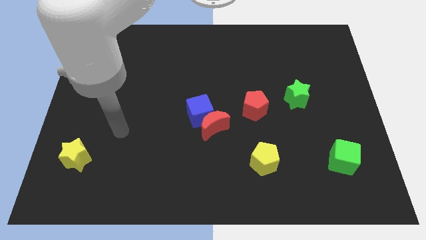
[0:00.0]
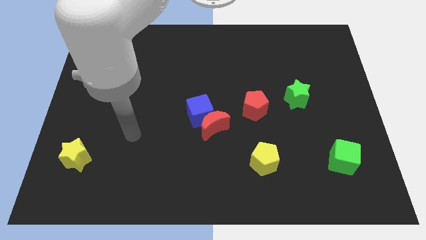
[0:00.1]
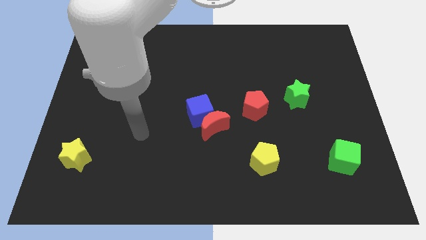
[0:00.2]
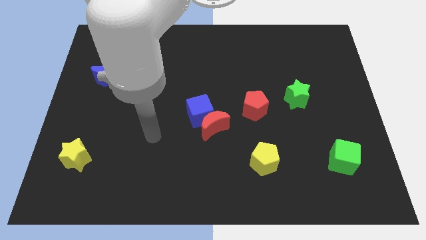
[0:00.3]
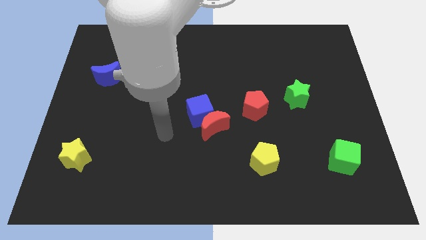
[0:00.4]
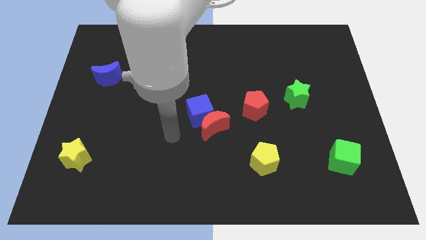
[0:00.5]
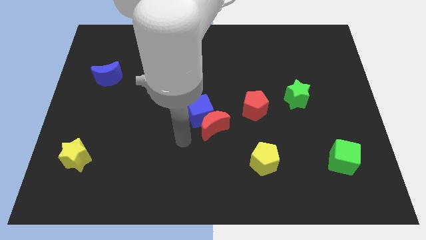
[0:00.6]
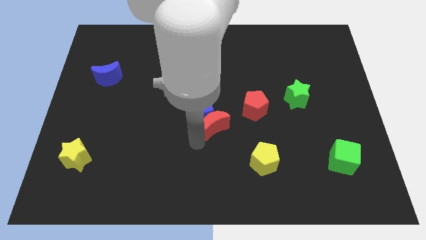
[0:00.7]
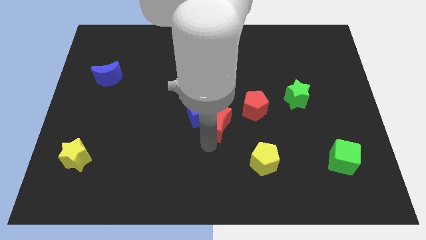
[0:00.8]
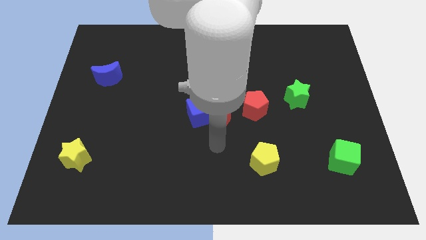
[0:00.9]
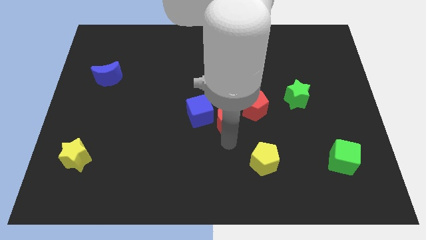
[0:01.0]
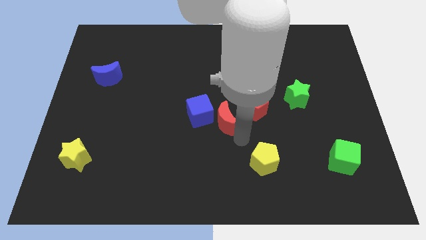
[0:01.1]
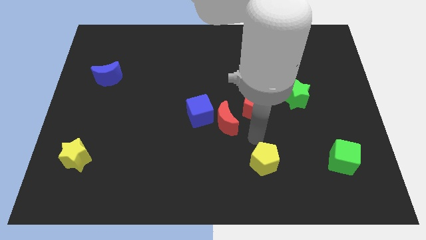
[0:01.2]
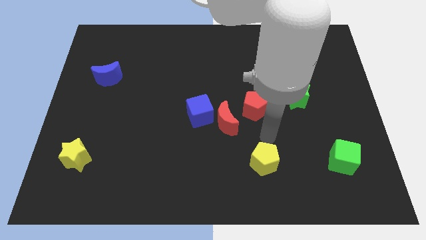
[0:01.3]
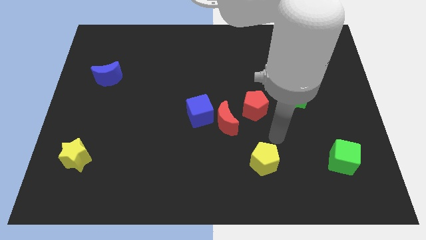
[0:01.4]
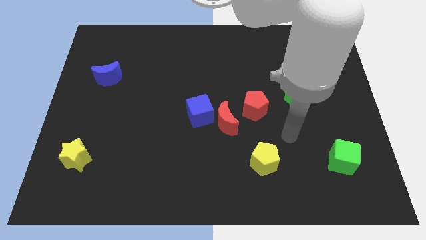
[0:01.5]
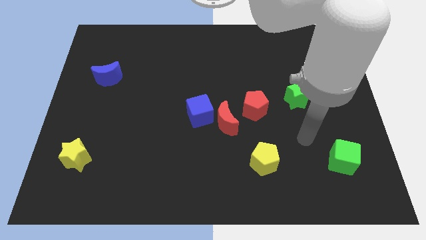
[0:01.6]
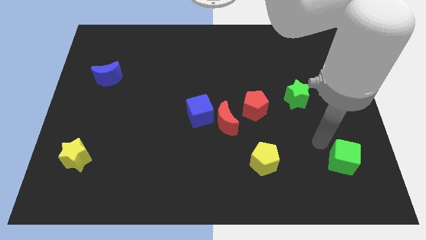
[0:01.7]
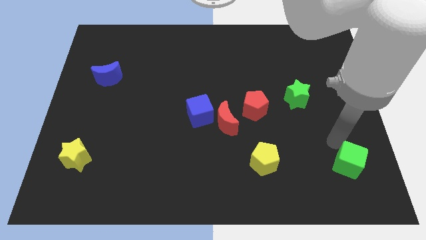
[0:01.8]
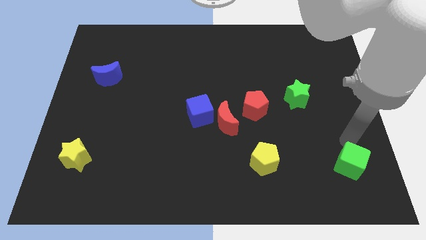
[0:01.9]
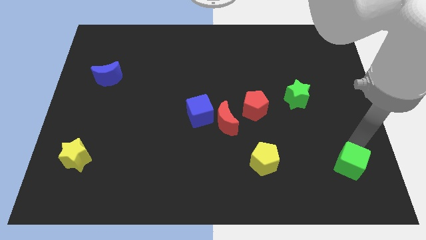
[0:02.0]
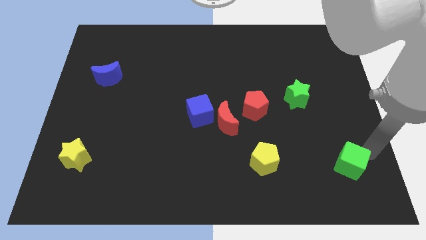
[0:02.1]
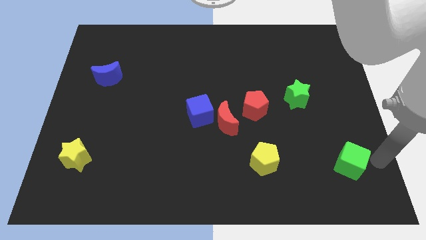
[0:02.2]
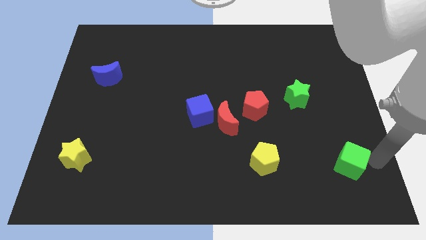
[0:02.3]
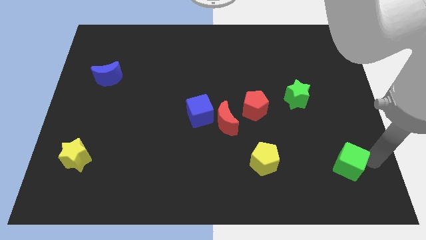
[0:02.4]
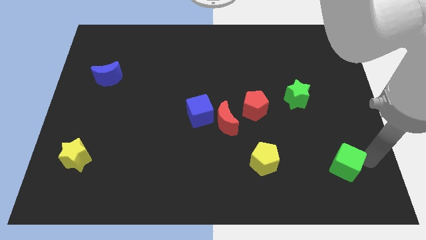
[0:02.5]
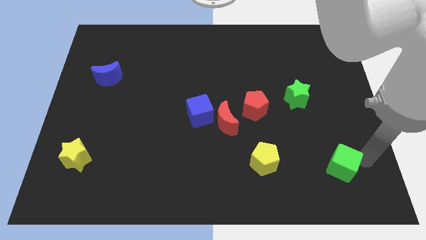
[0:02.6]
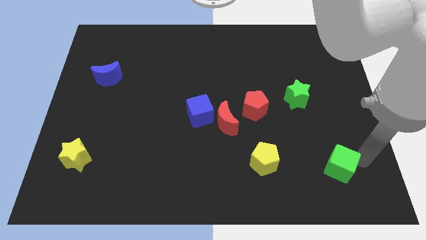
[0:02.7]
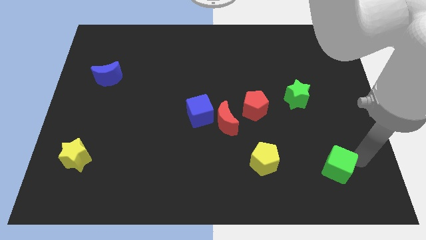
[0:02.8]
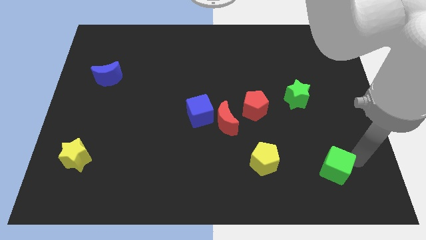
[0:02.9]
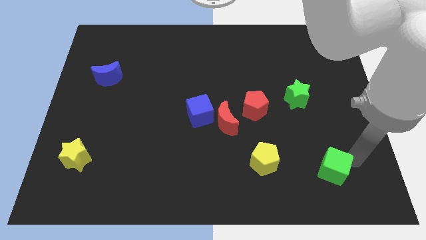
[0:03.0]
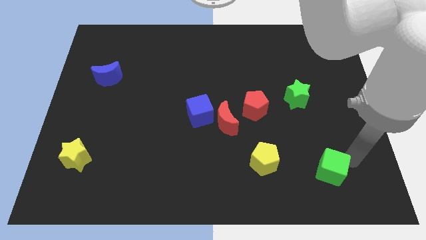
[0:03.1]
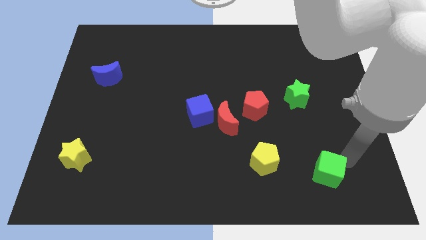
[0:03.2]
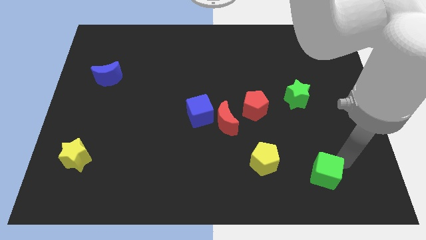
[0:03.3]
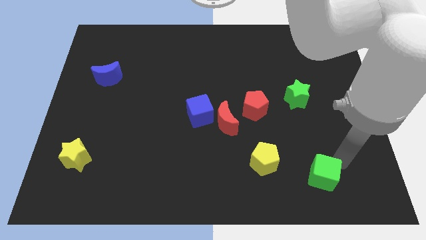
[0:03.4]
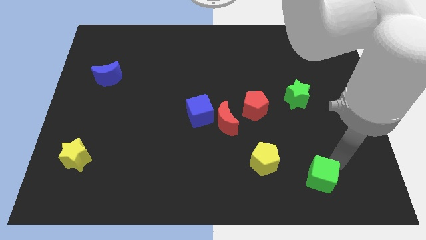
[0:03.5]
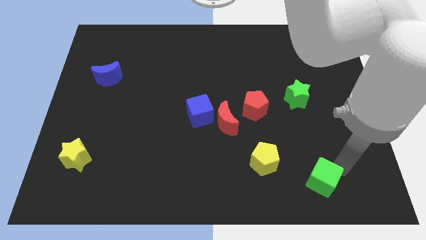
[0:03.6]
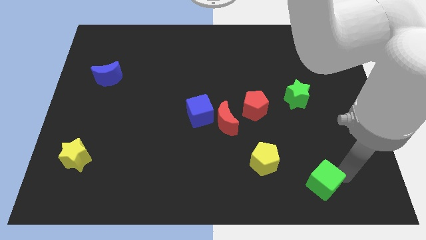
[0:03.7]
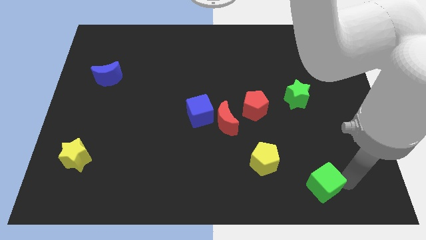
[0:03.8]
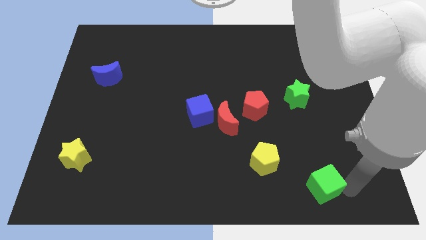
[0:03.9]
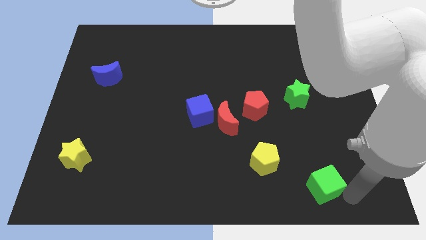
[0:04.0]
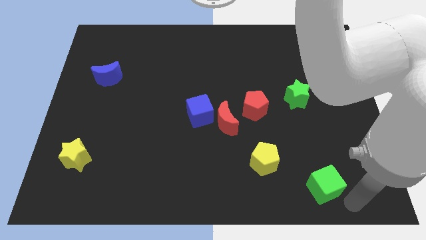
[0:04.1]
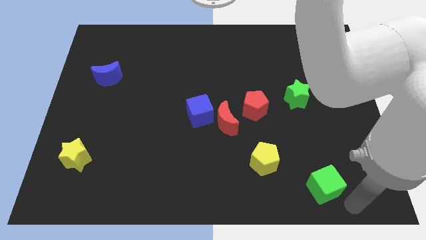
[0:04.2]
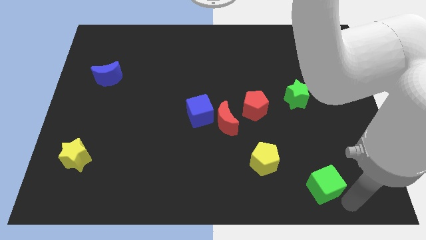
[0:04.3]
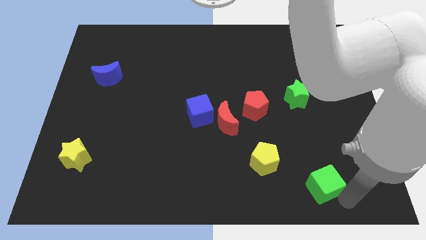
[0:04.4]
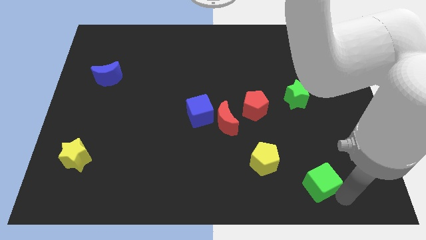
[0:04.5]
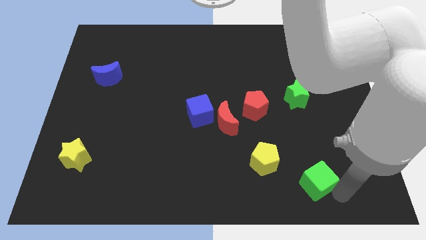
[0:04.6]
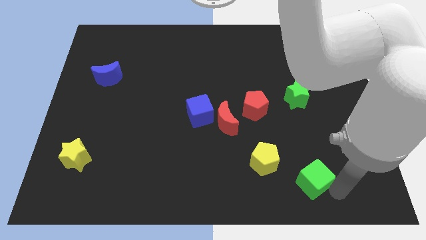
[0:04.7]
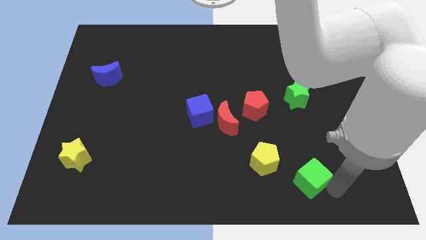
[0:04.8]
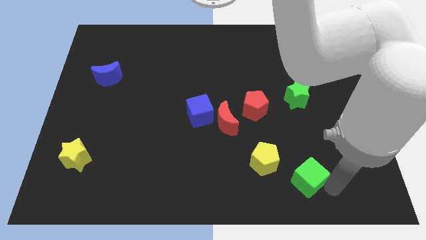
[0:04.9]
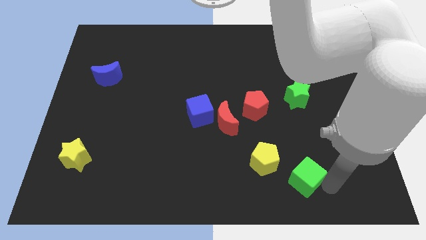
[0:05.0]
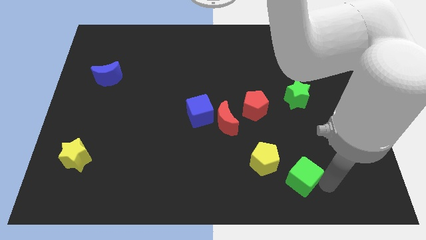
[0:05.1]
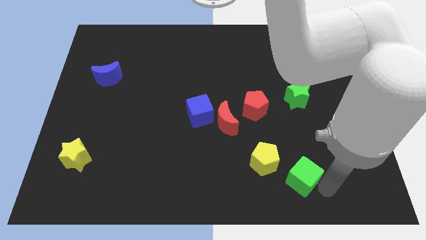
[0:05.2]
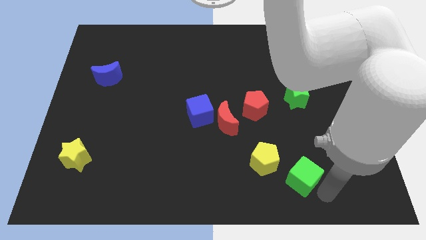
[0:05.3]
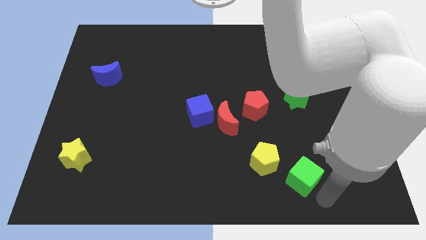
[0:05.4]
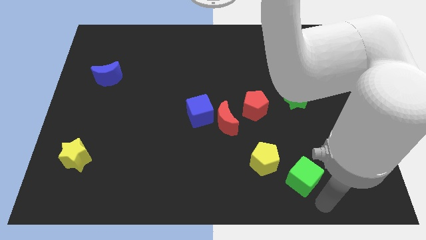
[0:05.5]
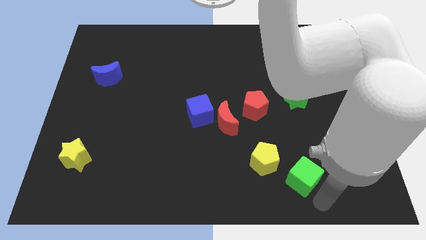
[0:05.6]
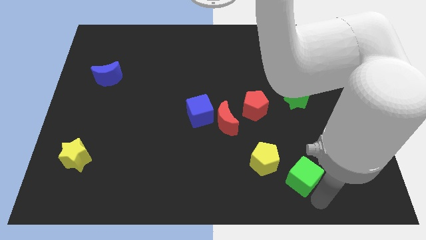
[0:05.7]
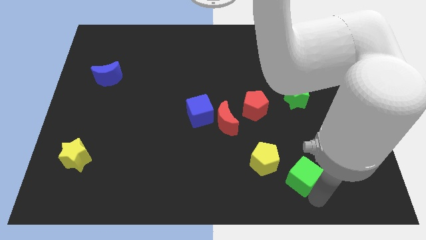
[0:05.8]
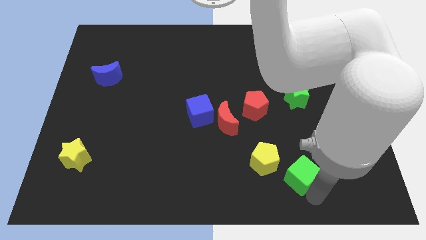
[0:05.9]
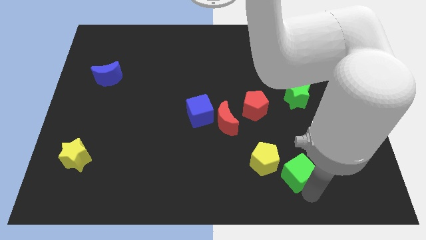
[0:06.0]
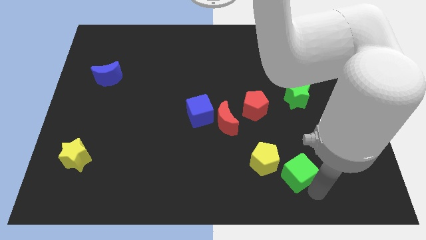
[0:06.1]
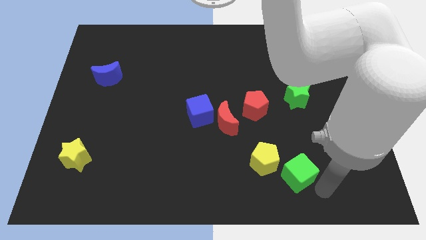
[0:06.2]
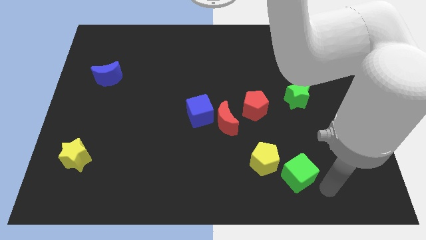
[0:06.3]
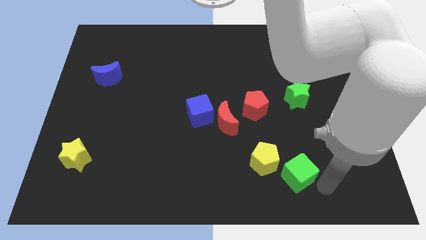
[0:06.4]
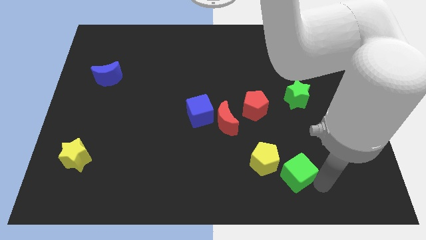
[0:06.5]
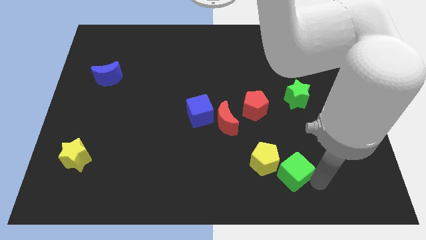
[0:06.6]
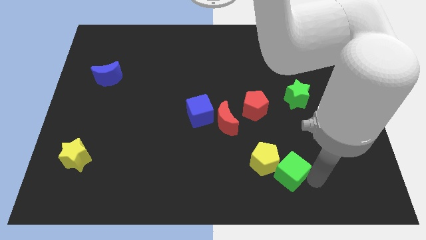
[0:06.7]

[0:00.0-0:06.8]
move the green cube close to the yellow pentagon
